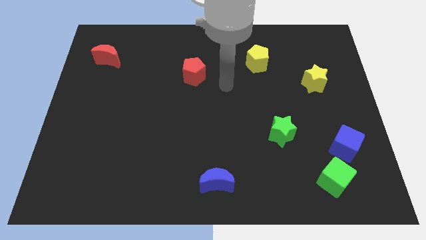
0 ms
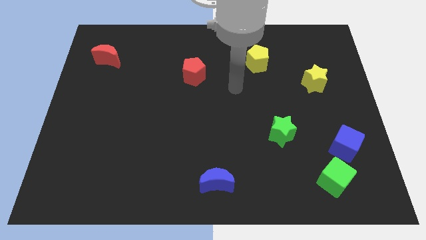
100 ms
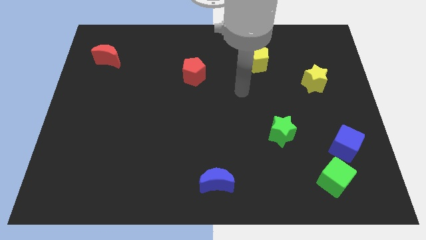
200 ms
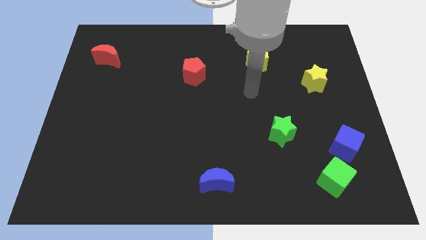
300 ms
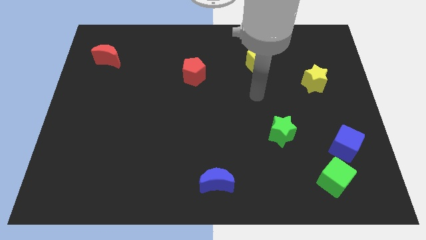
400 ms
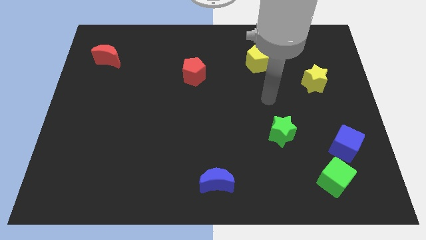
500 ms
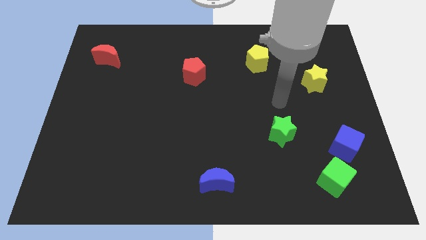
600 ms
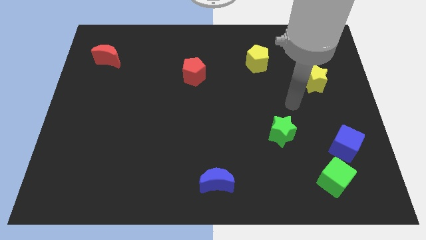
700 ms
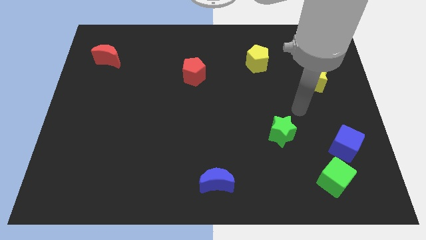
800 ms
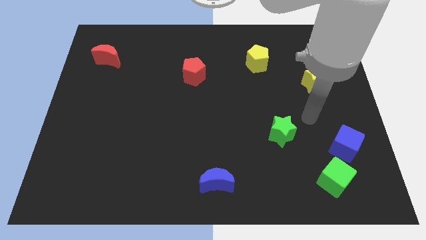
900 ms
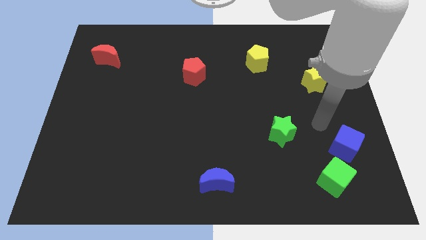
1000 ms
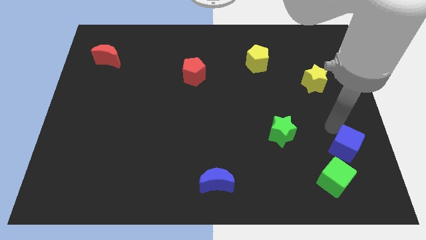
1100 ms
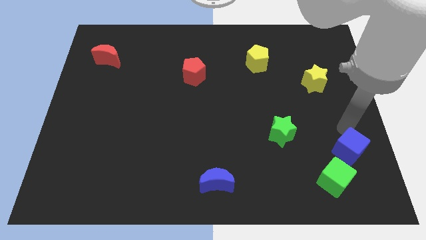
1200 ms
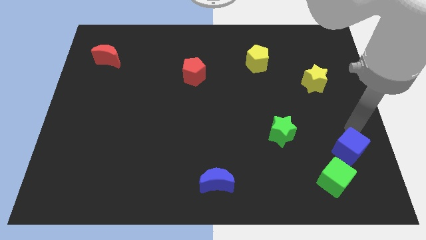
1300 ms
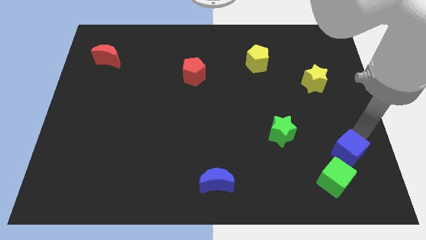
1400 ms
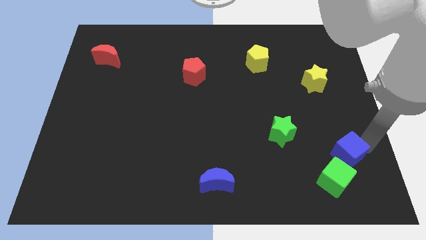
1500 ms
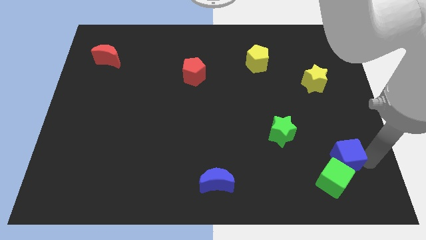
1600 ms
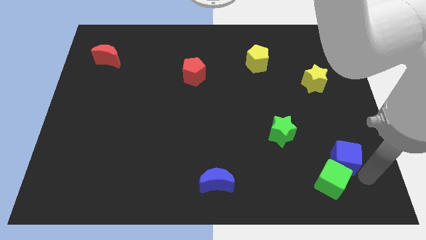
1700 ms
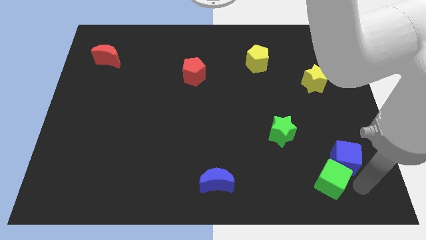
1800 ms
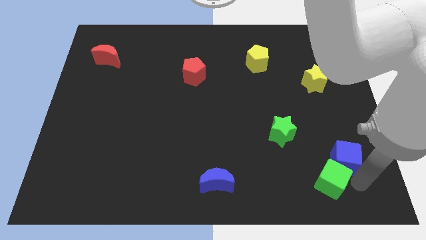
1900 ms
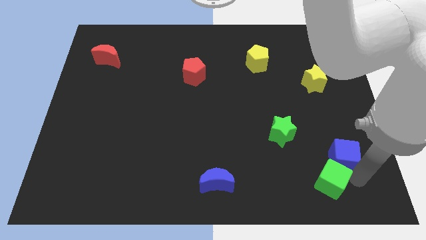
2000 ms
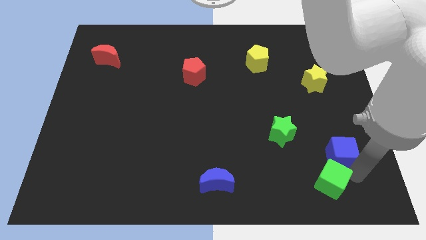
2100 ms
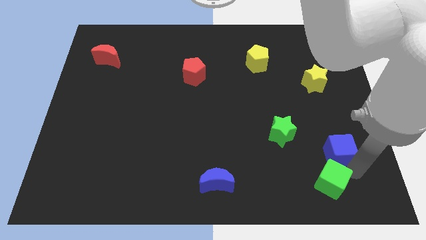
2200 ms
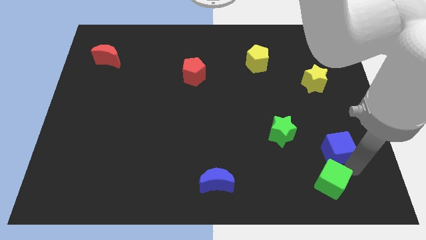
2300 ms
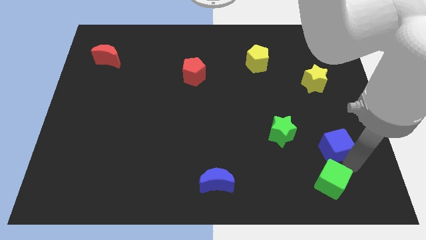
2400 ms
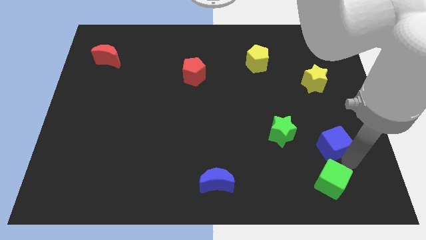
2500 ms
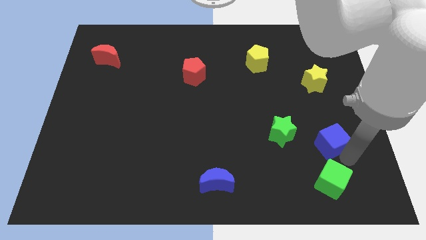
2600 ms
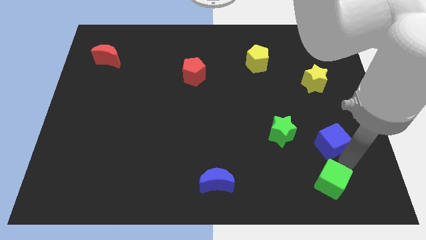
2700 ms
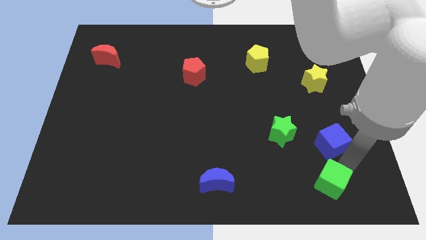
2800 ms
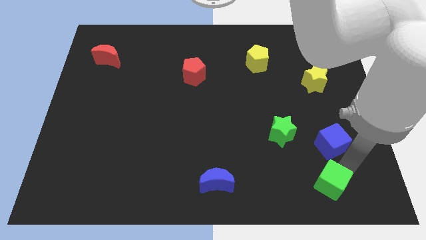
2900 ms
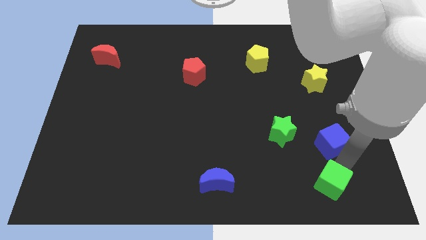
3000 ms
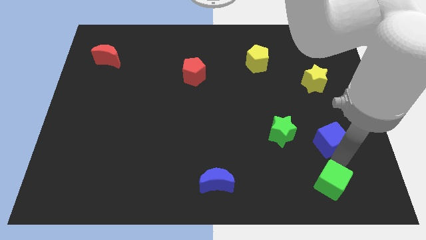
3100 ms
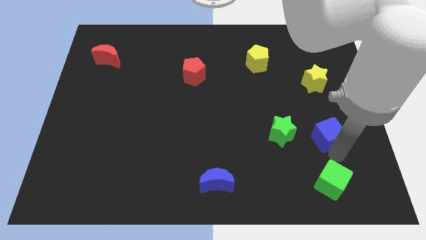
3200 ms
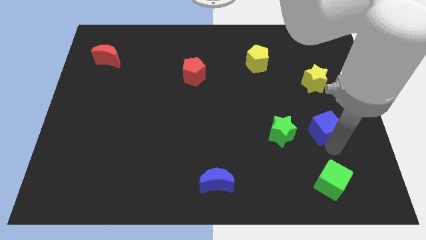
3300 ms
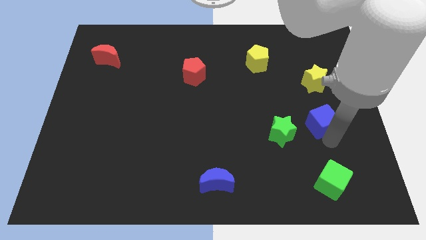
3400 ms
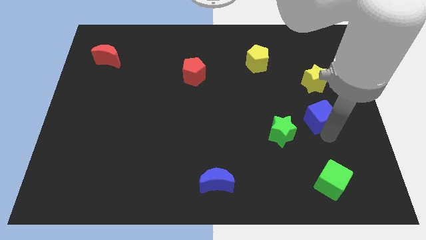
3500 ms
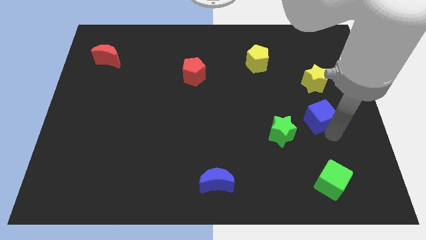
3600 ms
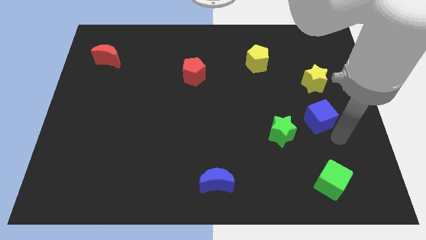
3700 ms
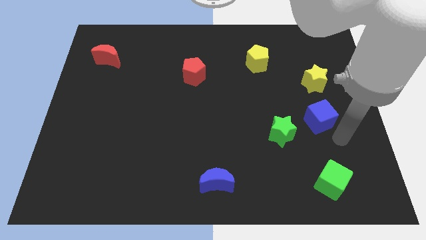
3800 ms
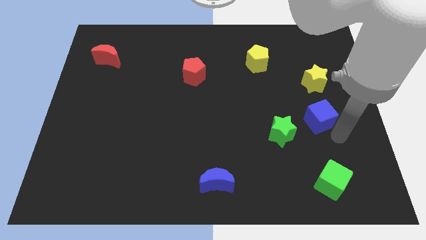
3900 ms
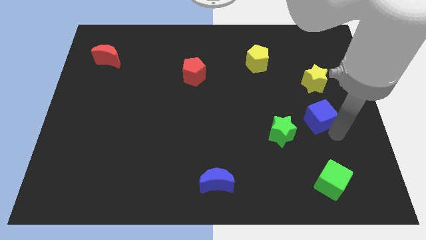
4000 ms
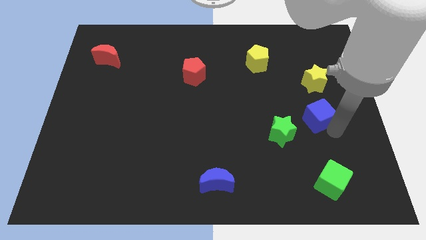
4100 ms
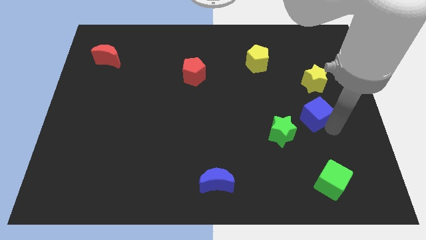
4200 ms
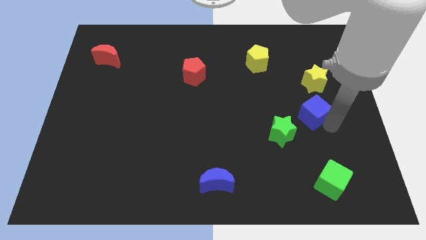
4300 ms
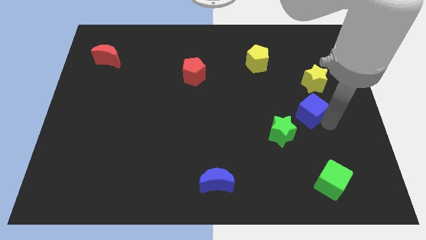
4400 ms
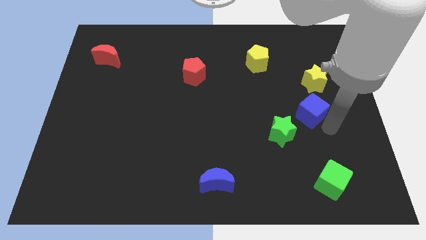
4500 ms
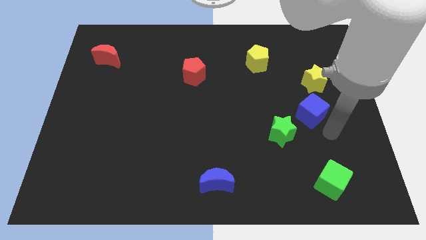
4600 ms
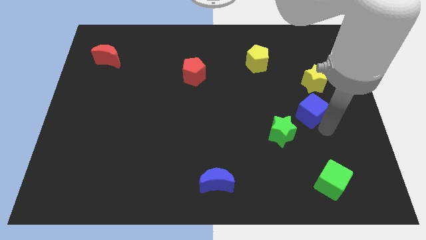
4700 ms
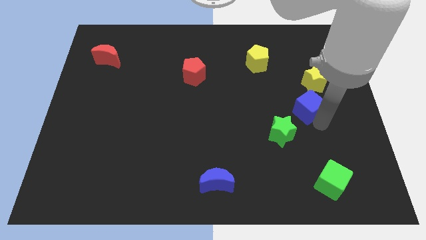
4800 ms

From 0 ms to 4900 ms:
slide the blue cube diagonally down and to the left of the yellow star

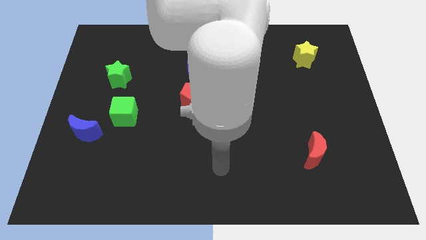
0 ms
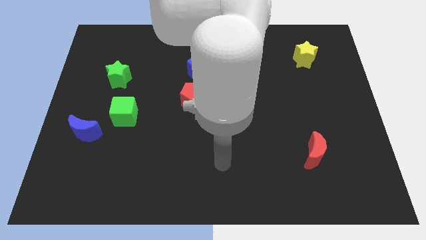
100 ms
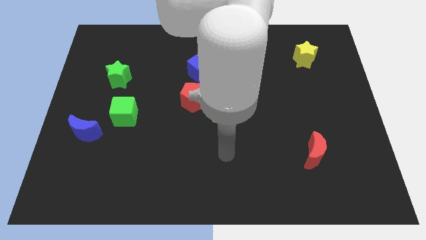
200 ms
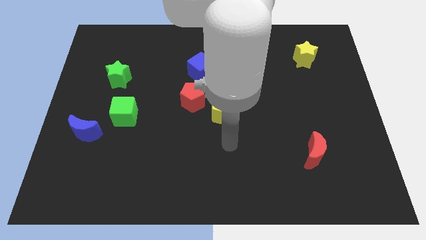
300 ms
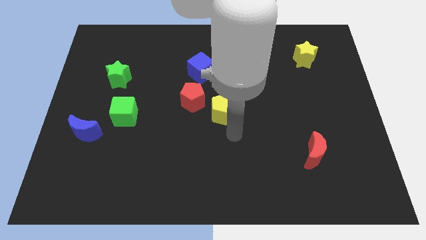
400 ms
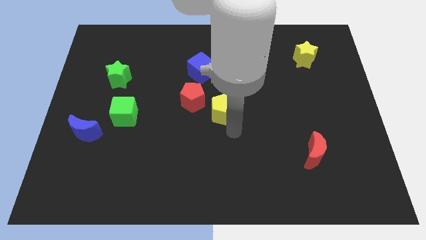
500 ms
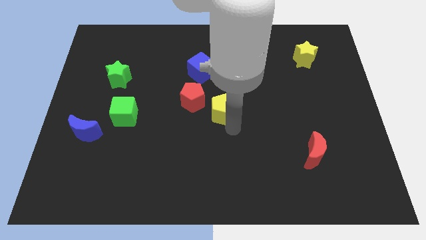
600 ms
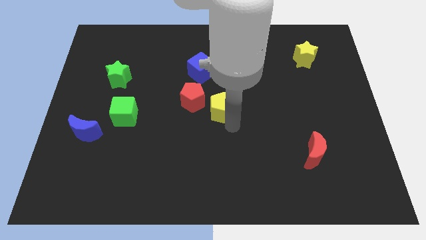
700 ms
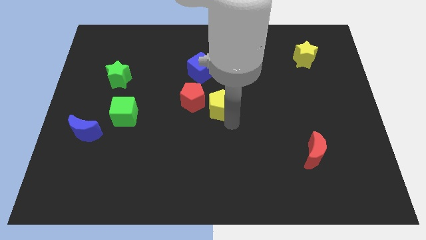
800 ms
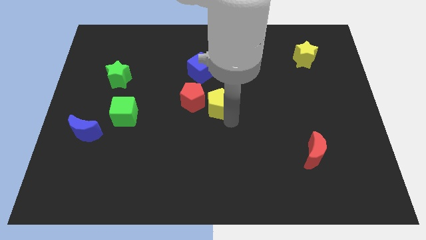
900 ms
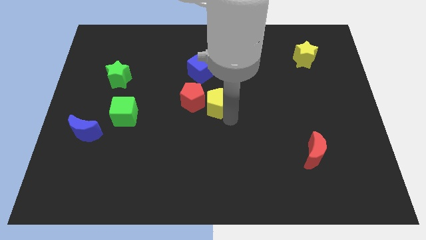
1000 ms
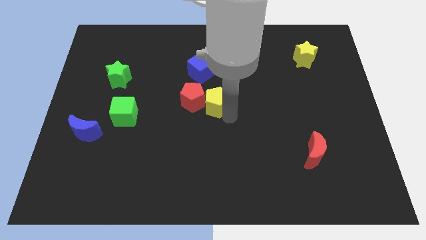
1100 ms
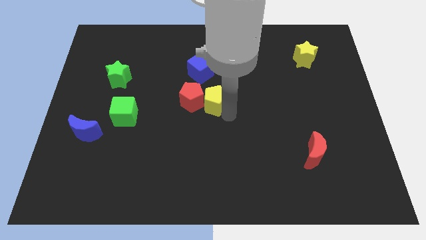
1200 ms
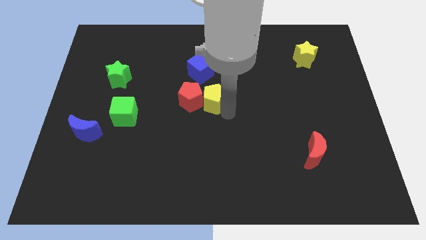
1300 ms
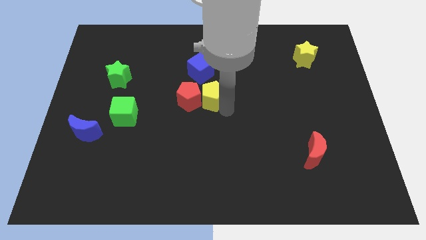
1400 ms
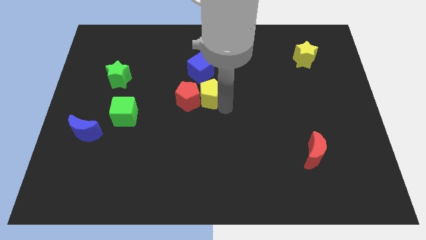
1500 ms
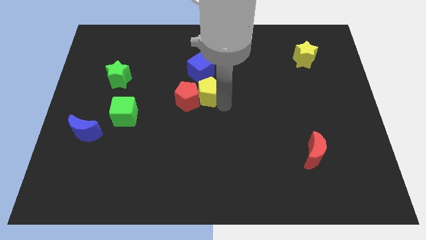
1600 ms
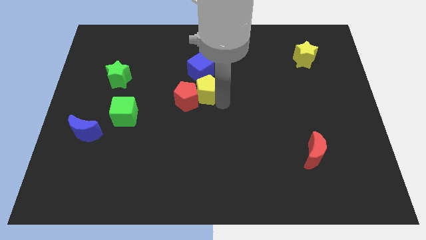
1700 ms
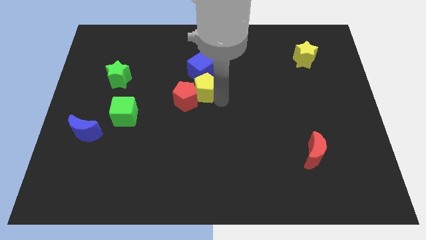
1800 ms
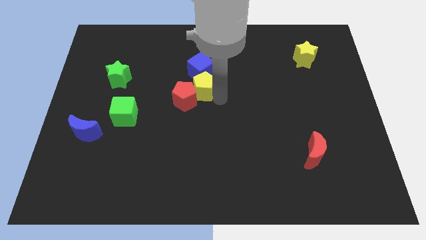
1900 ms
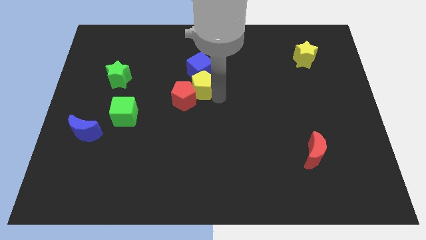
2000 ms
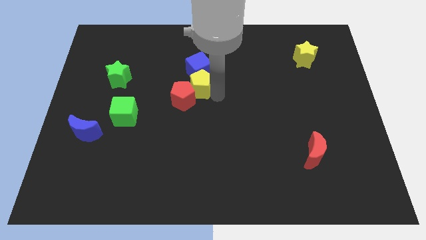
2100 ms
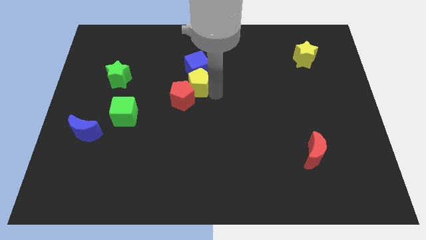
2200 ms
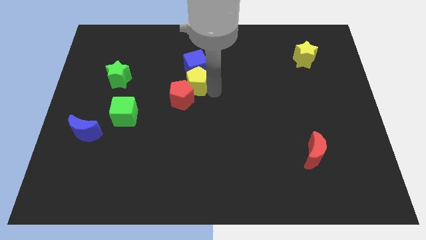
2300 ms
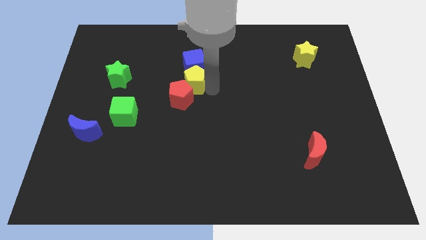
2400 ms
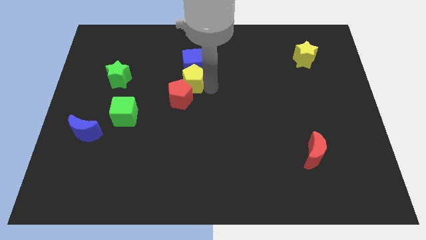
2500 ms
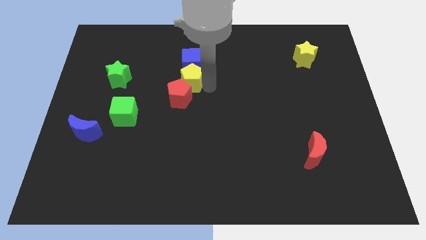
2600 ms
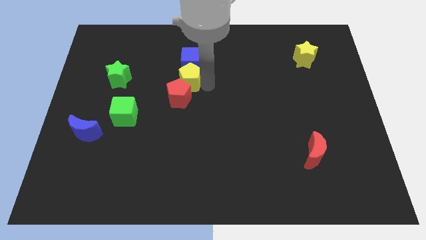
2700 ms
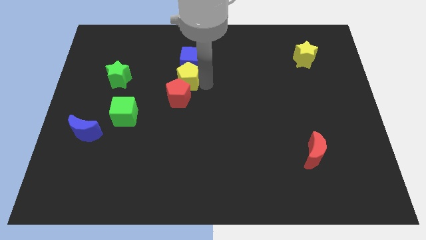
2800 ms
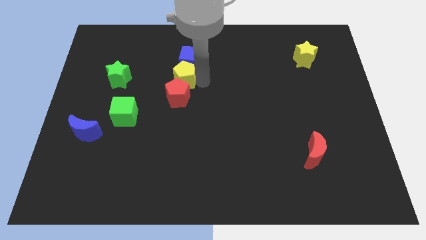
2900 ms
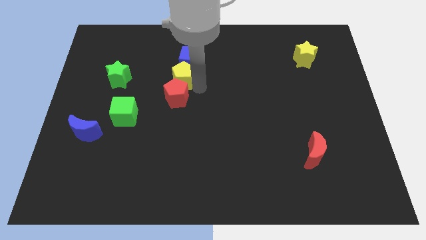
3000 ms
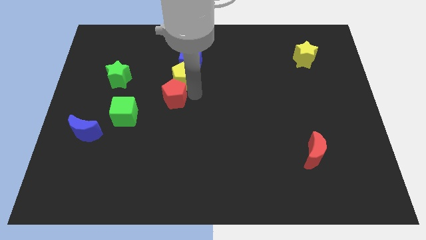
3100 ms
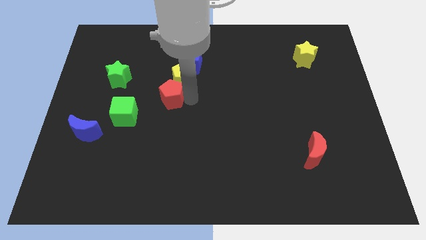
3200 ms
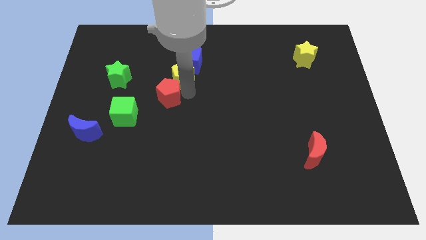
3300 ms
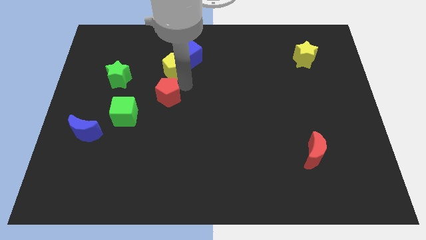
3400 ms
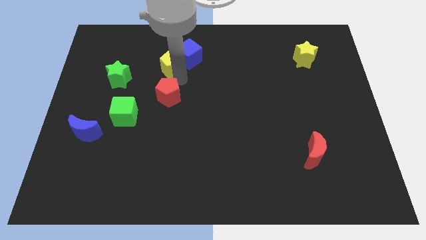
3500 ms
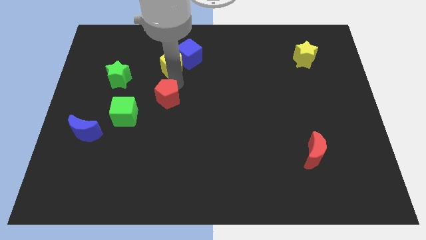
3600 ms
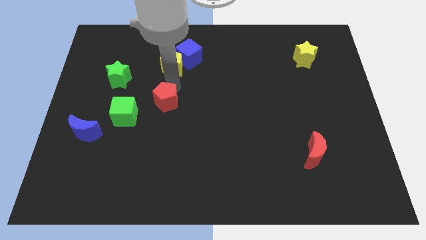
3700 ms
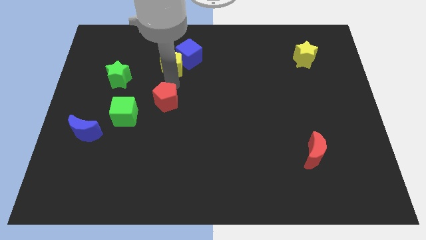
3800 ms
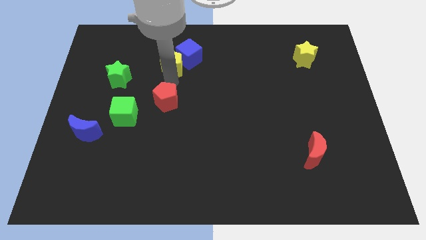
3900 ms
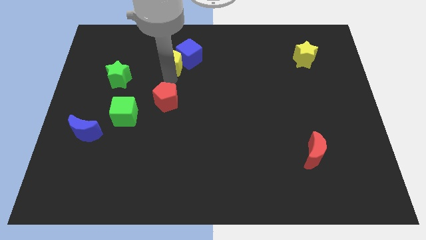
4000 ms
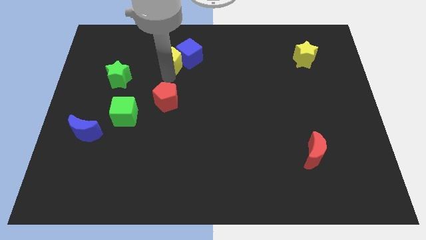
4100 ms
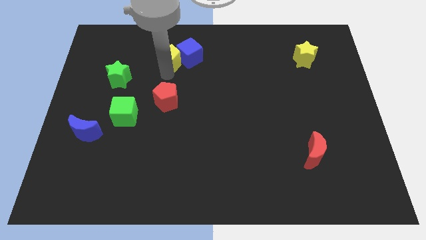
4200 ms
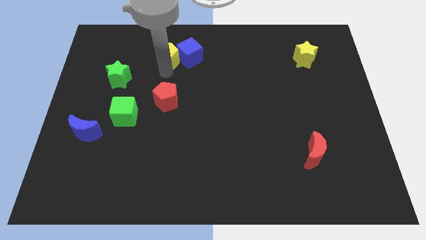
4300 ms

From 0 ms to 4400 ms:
slide the yellow pentagon to the top left side of the blue cube
